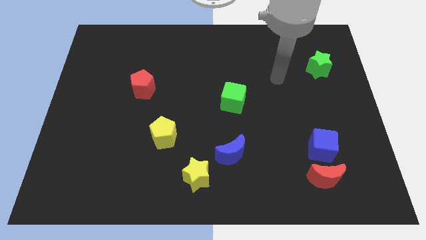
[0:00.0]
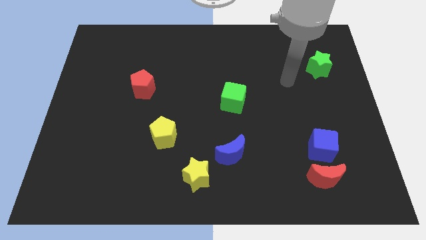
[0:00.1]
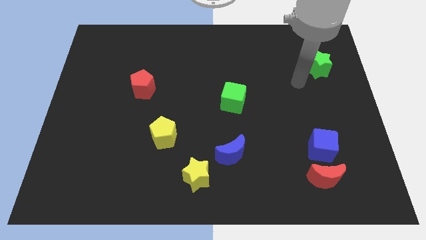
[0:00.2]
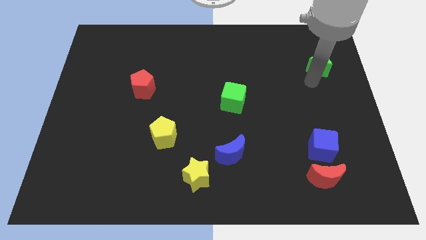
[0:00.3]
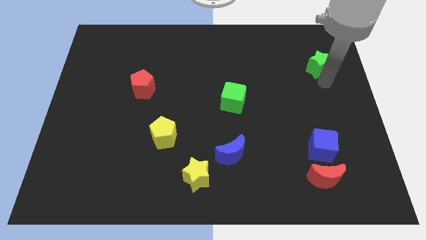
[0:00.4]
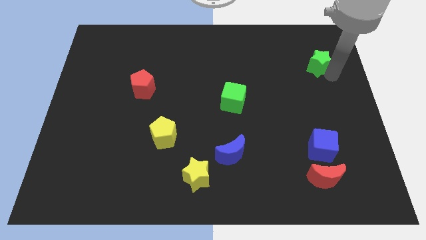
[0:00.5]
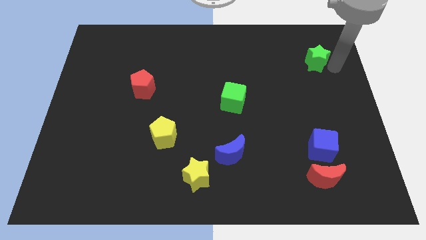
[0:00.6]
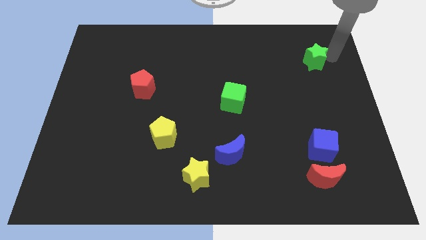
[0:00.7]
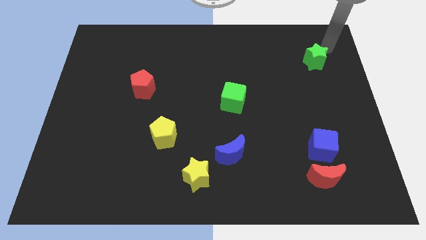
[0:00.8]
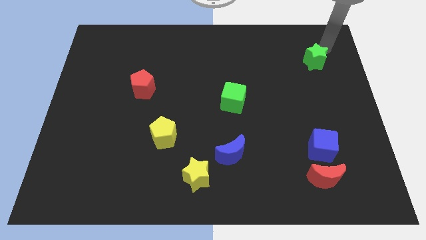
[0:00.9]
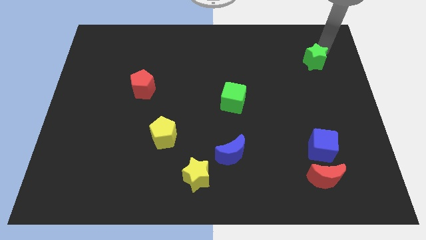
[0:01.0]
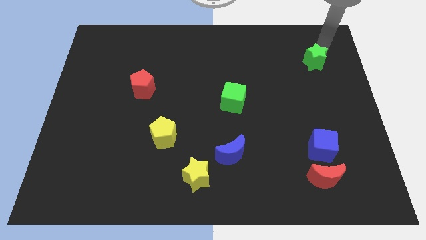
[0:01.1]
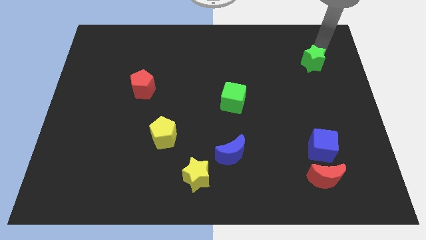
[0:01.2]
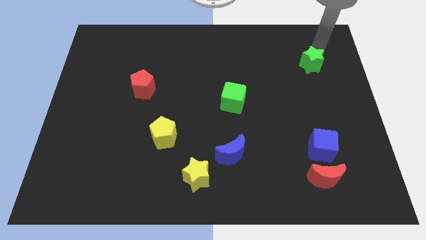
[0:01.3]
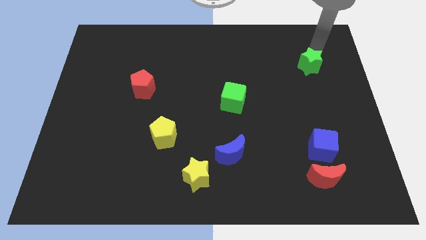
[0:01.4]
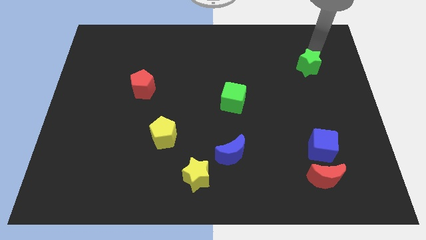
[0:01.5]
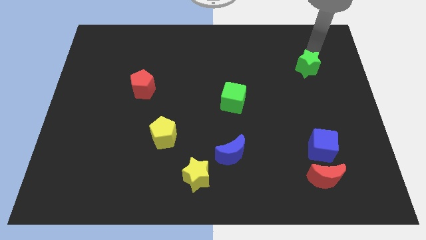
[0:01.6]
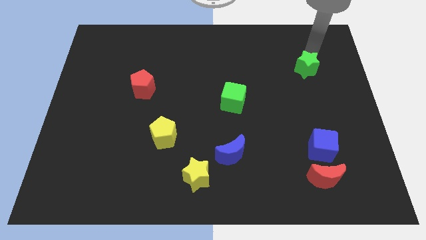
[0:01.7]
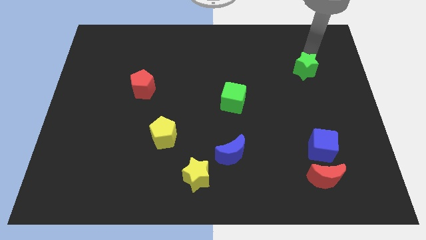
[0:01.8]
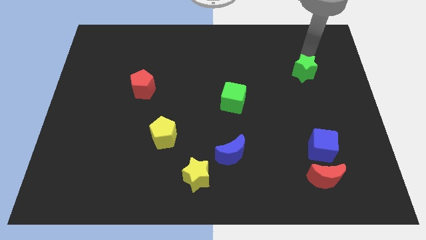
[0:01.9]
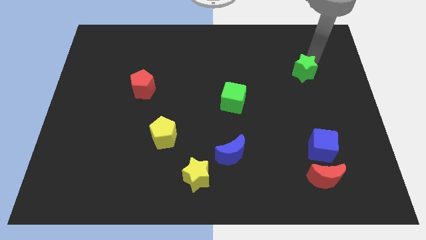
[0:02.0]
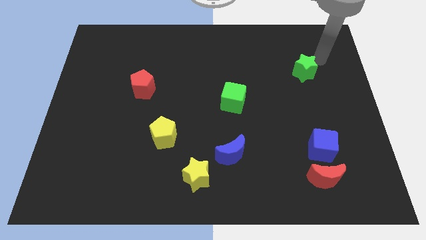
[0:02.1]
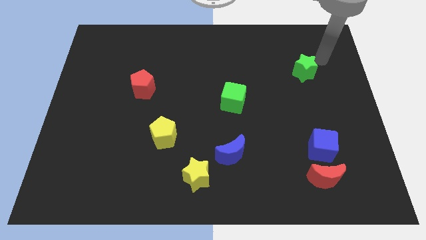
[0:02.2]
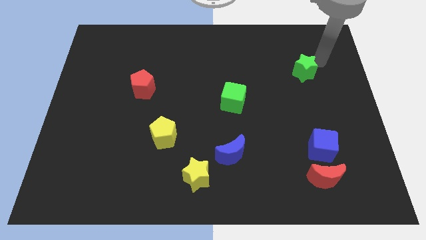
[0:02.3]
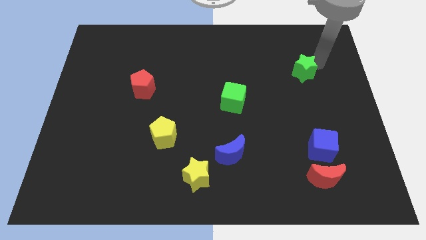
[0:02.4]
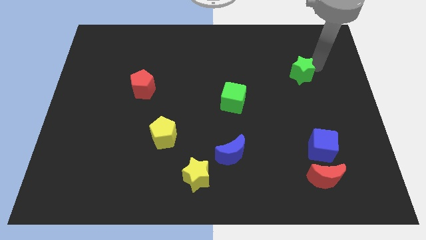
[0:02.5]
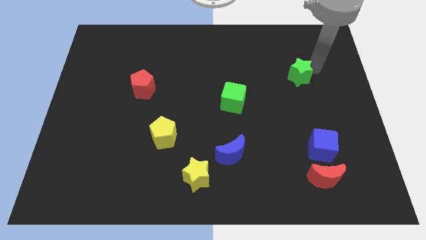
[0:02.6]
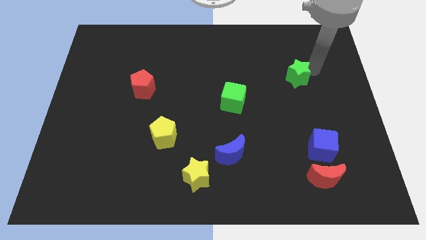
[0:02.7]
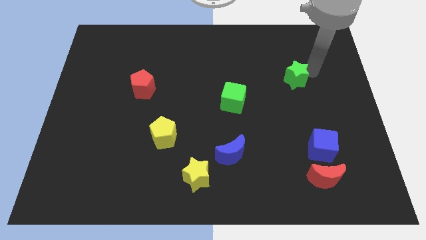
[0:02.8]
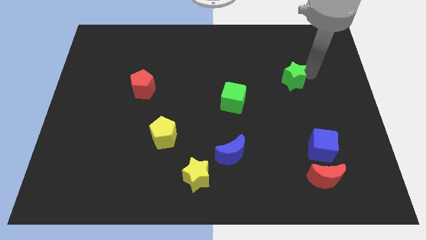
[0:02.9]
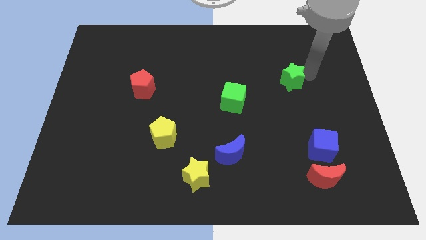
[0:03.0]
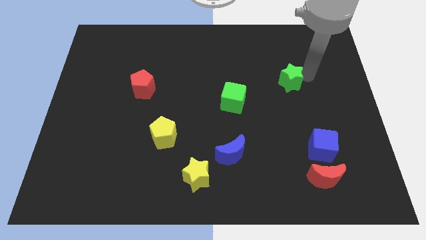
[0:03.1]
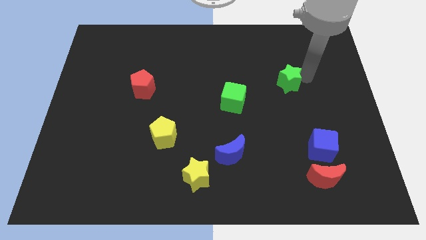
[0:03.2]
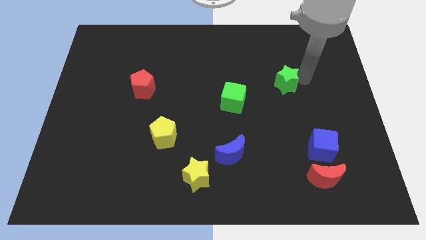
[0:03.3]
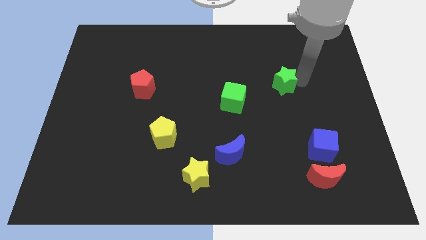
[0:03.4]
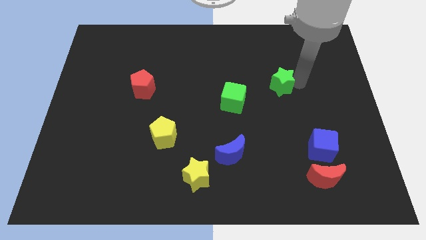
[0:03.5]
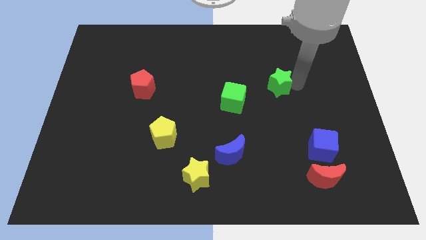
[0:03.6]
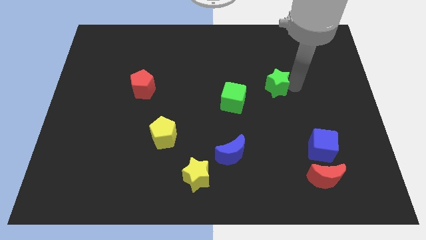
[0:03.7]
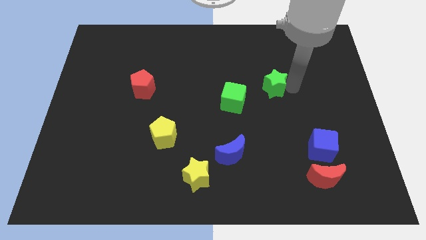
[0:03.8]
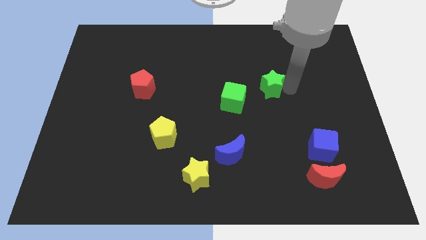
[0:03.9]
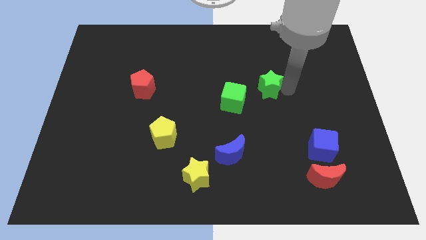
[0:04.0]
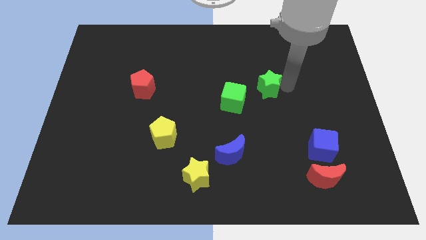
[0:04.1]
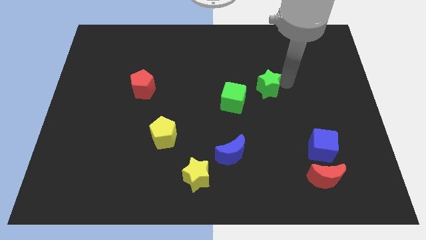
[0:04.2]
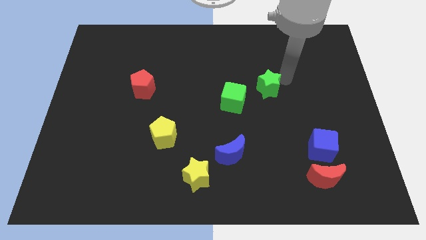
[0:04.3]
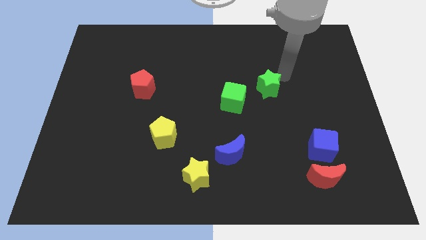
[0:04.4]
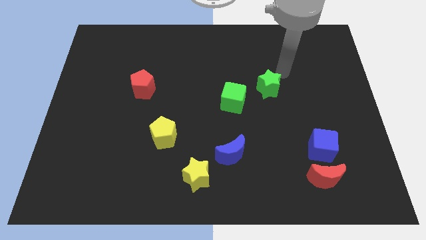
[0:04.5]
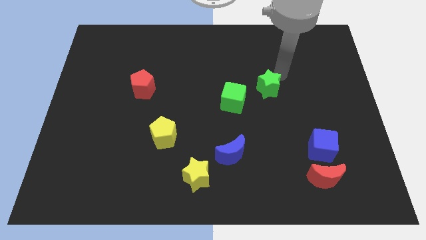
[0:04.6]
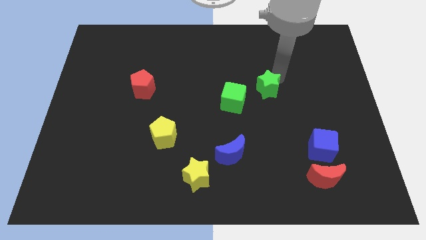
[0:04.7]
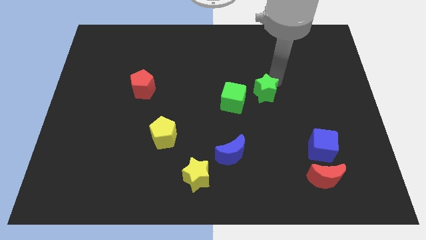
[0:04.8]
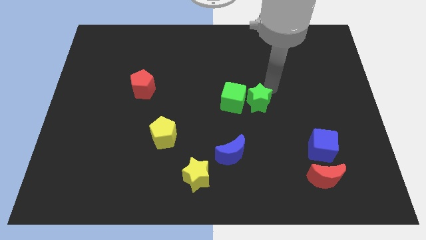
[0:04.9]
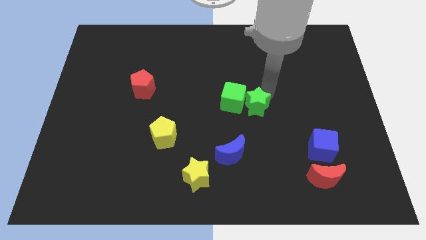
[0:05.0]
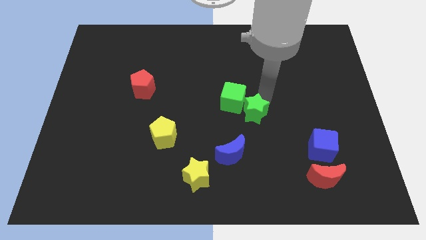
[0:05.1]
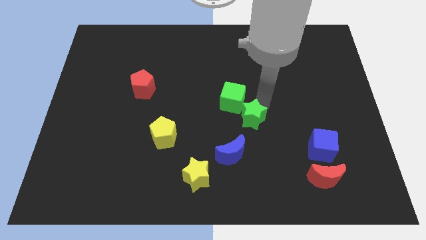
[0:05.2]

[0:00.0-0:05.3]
slide the green star to the top side of the blue moon

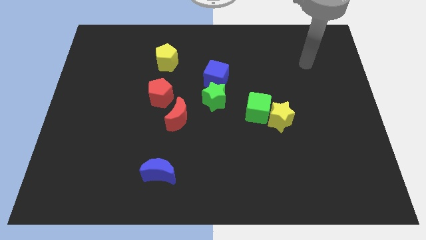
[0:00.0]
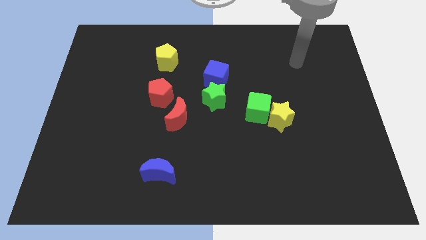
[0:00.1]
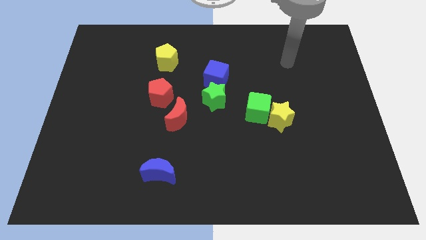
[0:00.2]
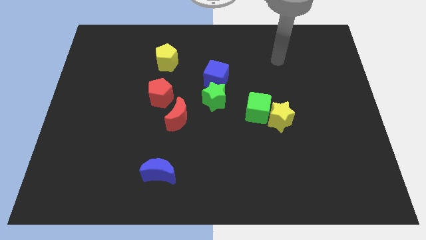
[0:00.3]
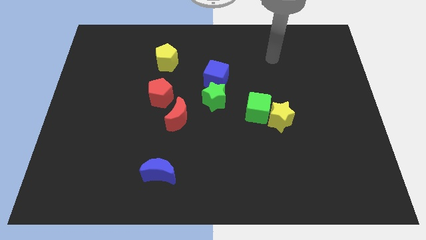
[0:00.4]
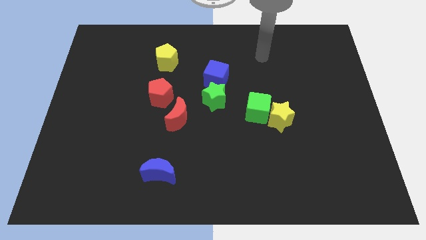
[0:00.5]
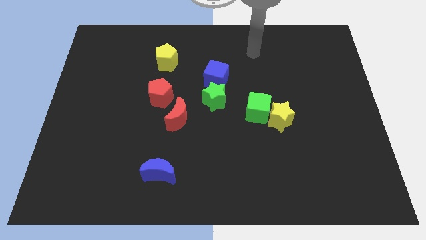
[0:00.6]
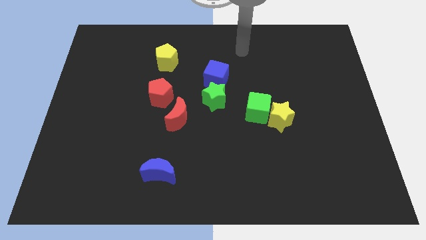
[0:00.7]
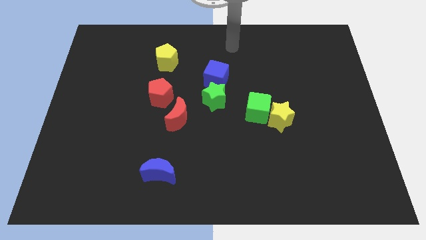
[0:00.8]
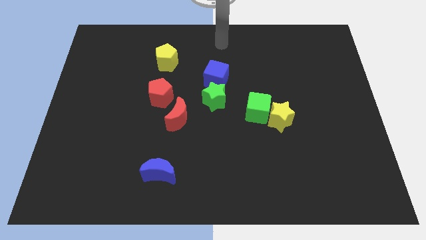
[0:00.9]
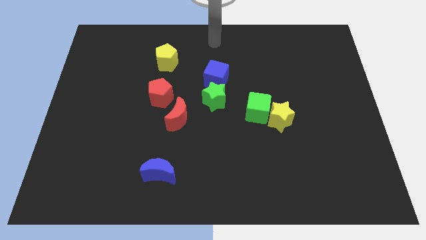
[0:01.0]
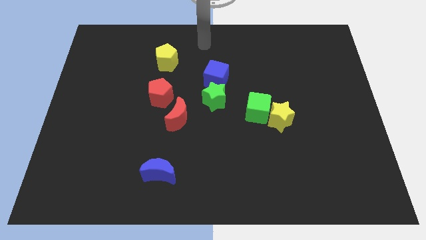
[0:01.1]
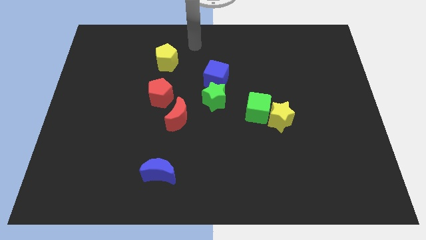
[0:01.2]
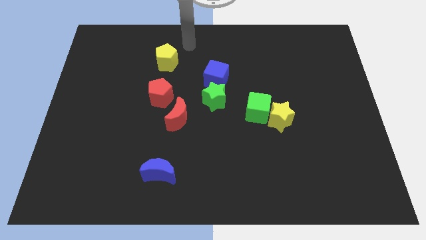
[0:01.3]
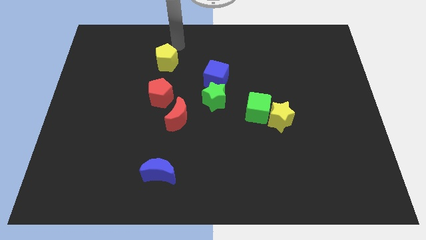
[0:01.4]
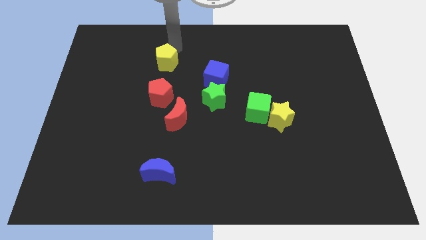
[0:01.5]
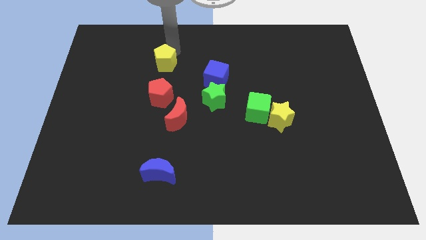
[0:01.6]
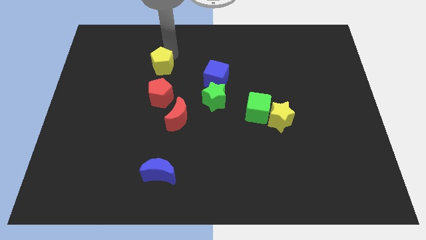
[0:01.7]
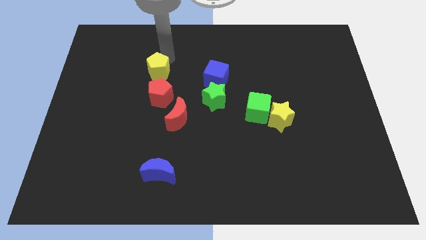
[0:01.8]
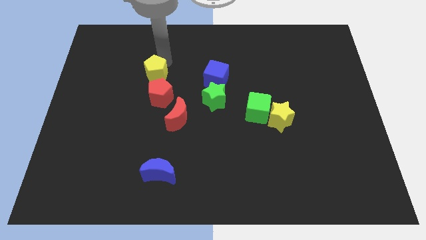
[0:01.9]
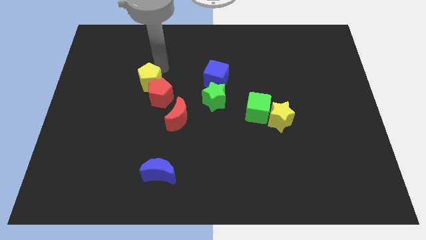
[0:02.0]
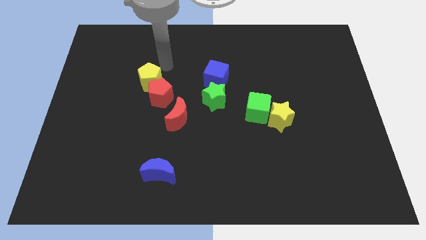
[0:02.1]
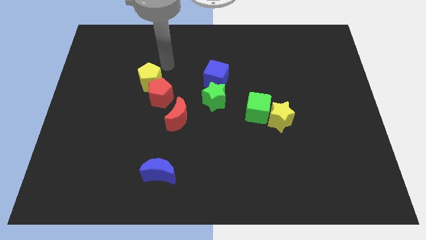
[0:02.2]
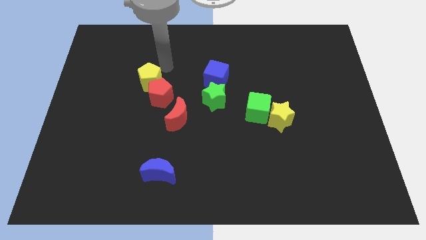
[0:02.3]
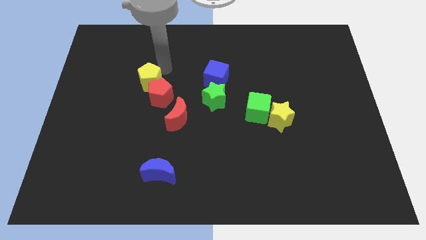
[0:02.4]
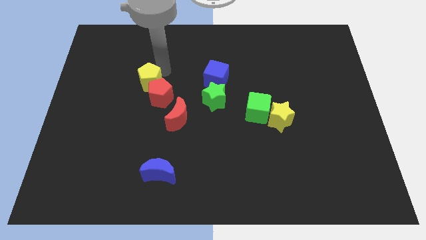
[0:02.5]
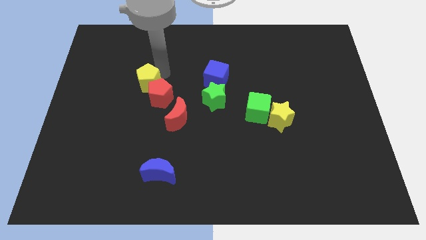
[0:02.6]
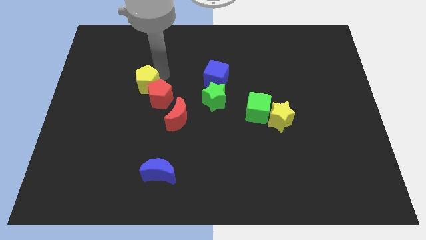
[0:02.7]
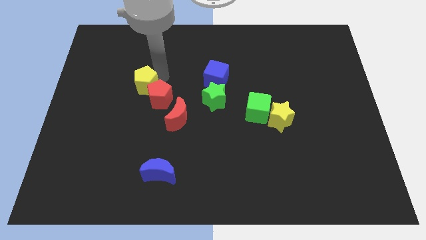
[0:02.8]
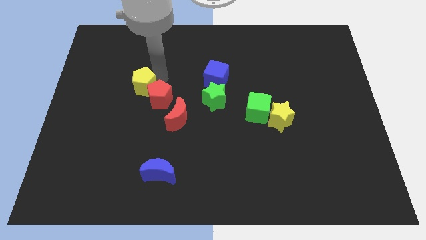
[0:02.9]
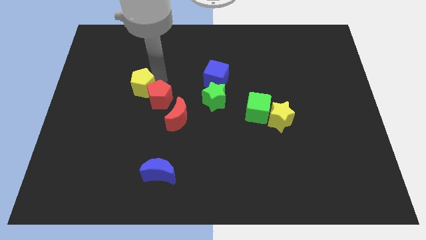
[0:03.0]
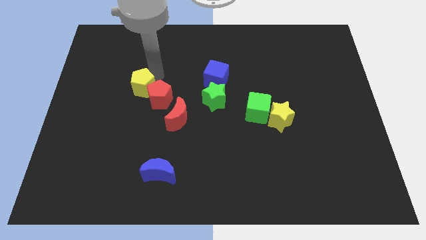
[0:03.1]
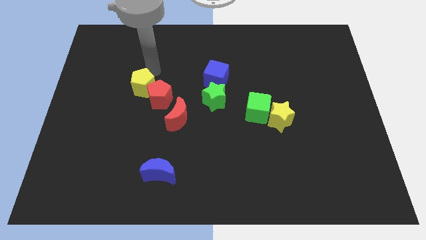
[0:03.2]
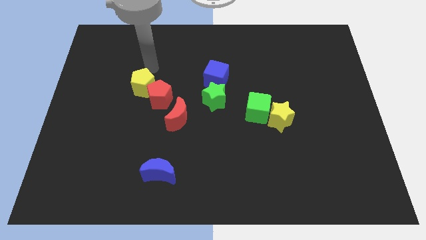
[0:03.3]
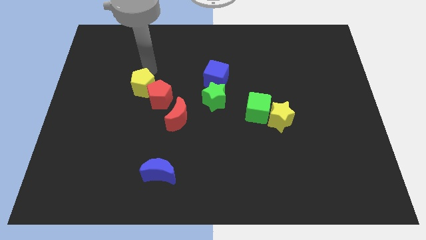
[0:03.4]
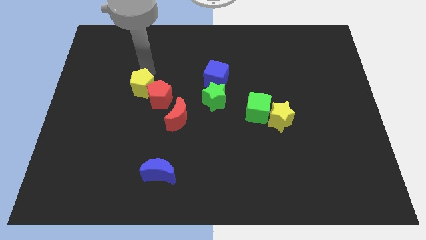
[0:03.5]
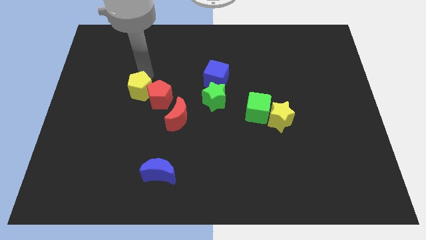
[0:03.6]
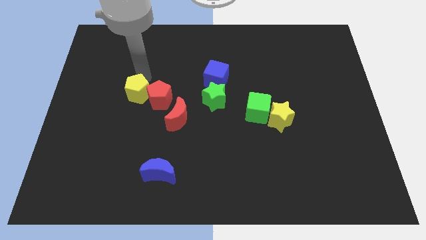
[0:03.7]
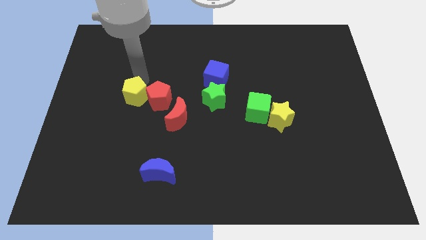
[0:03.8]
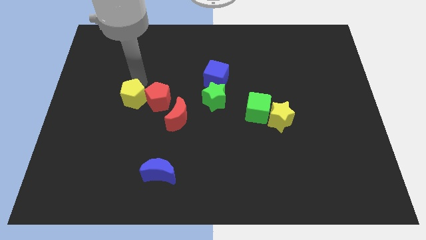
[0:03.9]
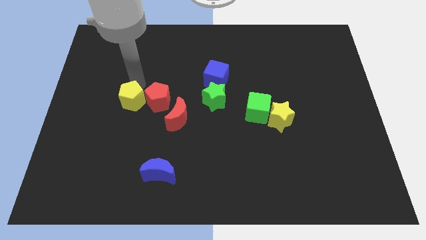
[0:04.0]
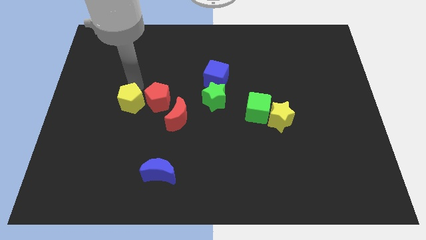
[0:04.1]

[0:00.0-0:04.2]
push the yellow pentagon to the left of the red moon
